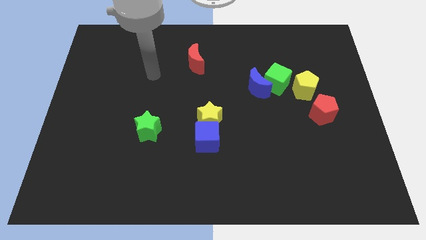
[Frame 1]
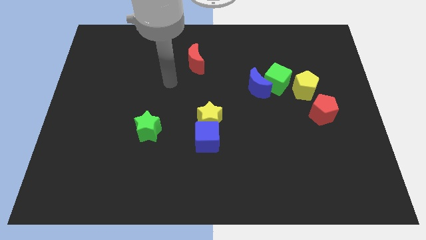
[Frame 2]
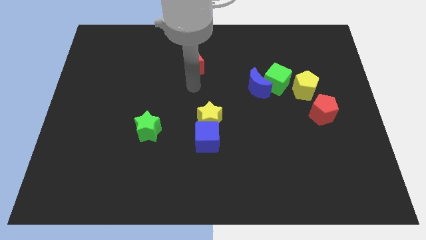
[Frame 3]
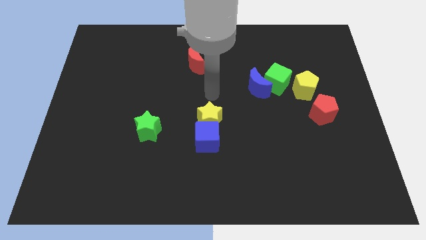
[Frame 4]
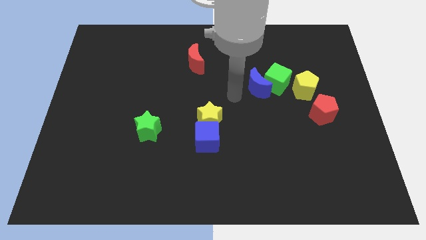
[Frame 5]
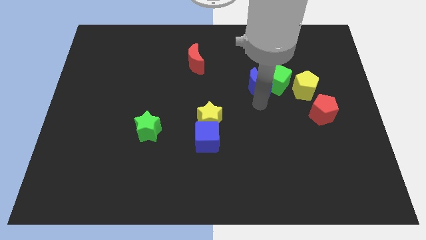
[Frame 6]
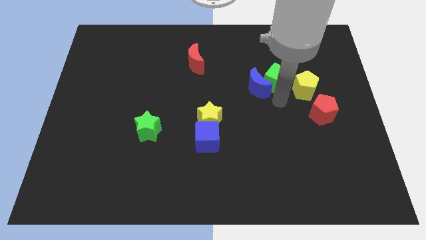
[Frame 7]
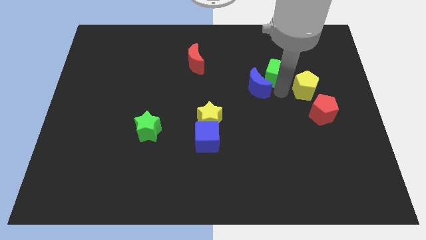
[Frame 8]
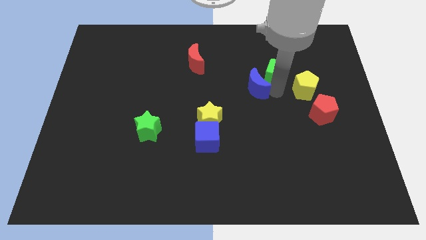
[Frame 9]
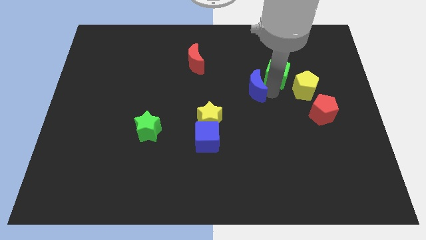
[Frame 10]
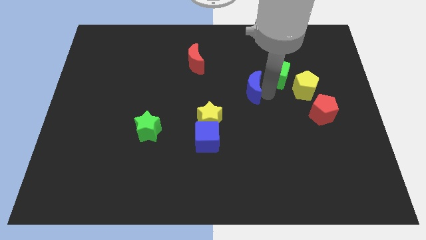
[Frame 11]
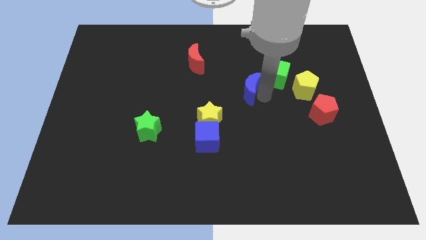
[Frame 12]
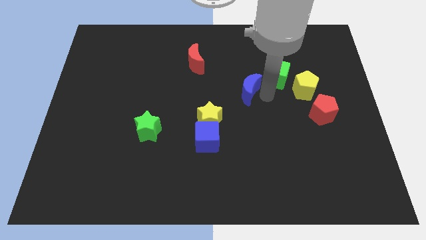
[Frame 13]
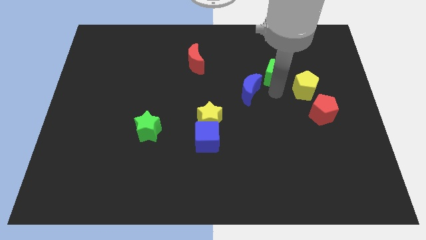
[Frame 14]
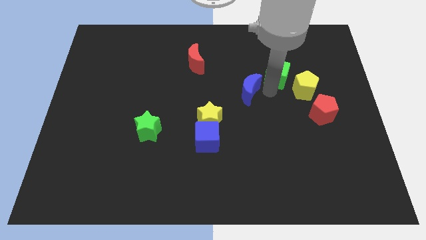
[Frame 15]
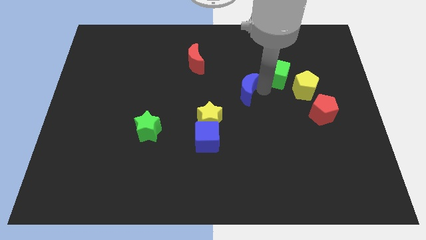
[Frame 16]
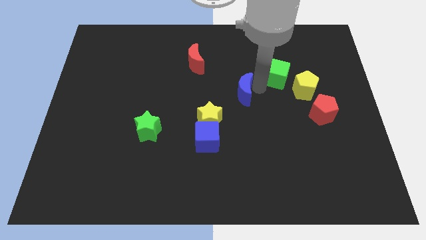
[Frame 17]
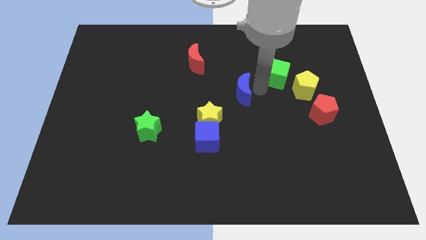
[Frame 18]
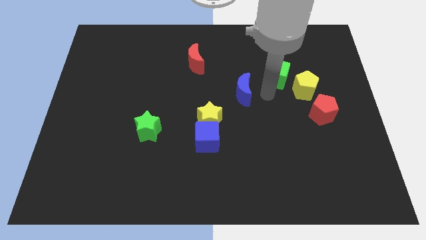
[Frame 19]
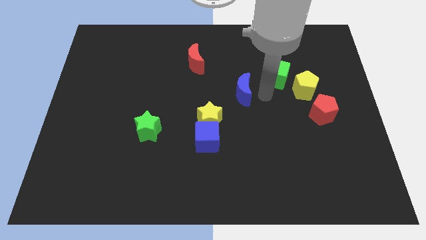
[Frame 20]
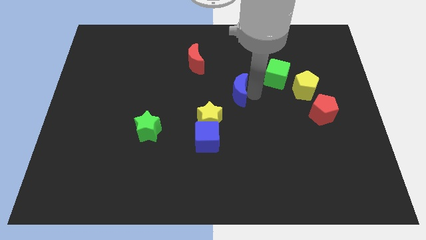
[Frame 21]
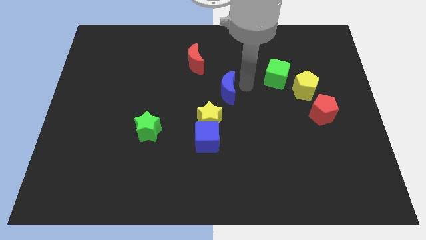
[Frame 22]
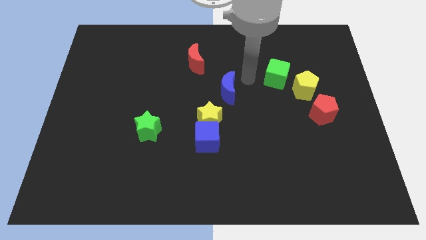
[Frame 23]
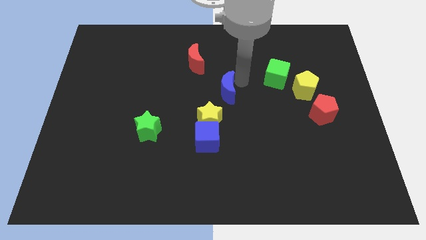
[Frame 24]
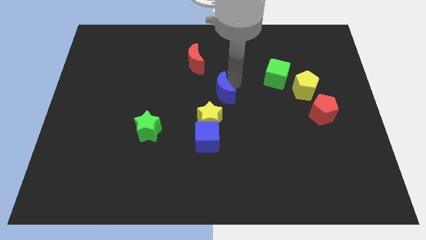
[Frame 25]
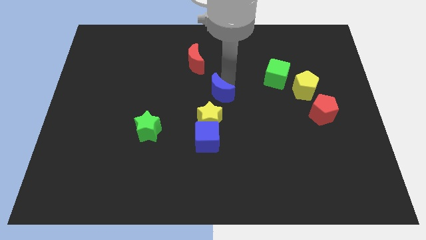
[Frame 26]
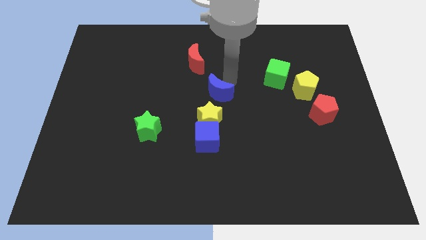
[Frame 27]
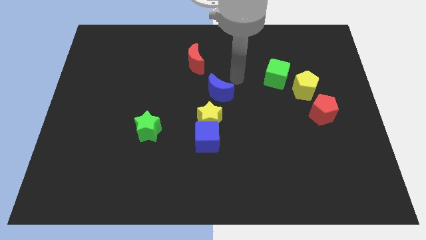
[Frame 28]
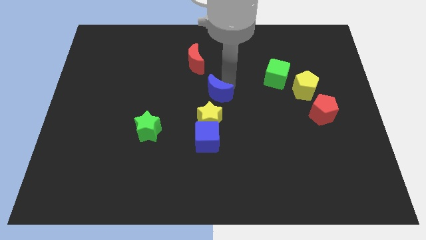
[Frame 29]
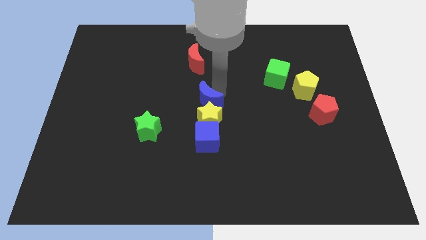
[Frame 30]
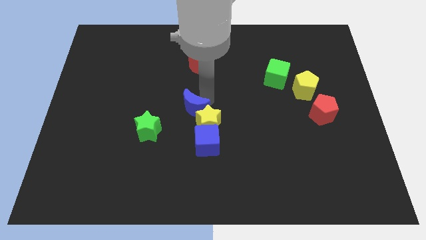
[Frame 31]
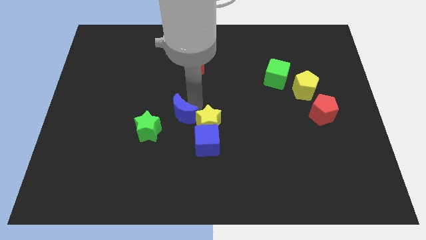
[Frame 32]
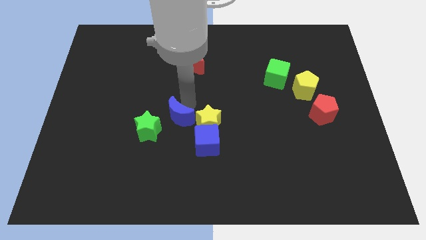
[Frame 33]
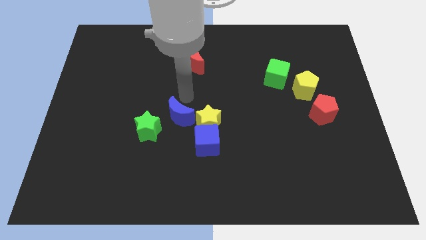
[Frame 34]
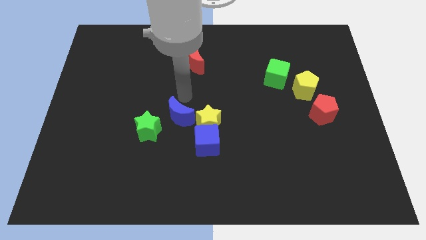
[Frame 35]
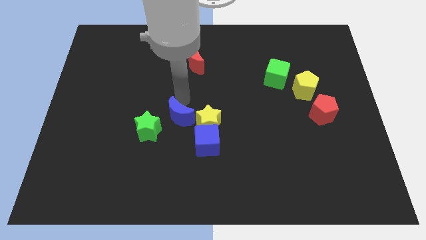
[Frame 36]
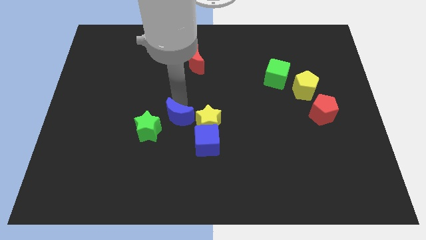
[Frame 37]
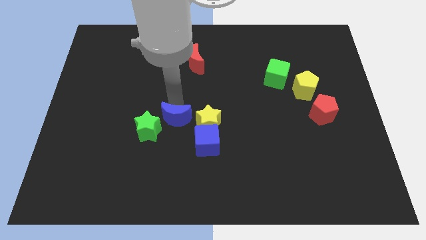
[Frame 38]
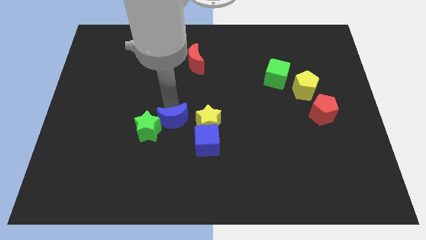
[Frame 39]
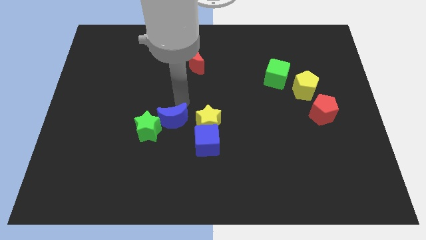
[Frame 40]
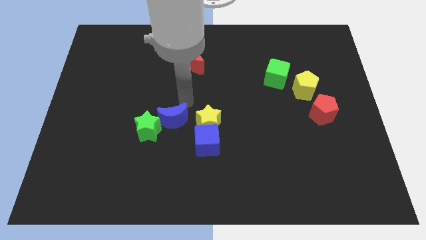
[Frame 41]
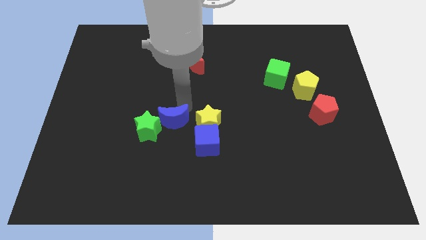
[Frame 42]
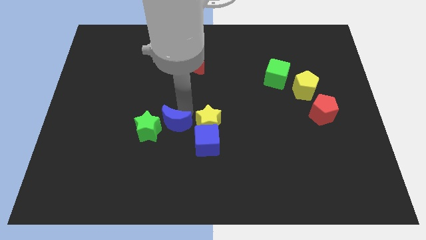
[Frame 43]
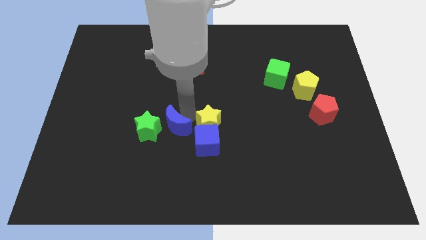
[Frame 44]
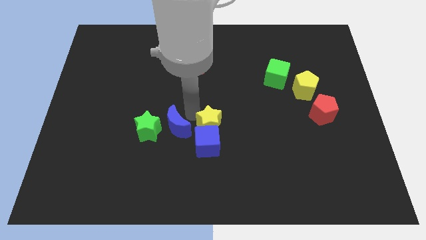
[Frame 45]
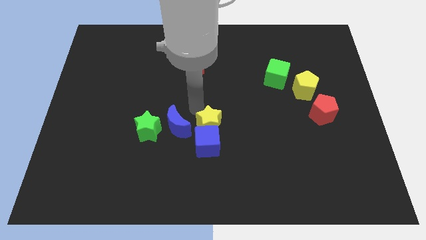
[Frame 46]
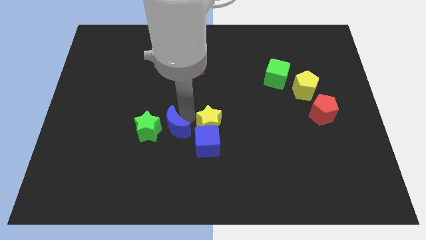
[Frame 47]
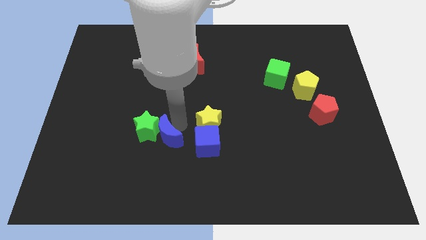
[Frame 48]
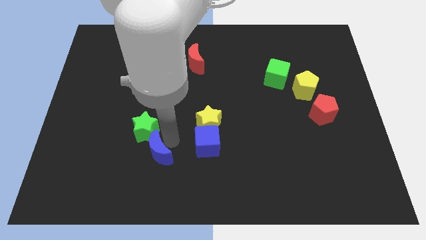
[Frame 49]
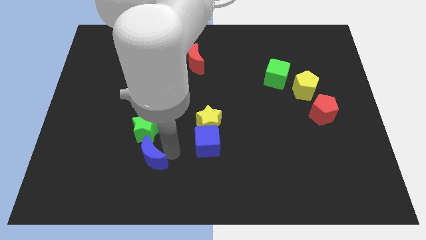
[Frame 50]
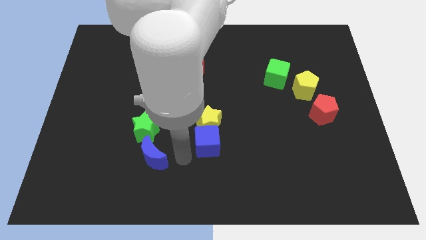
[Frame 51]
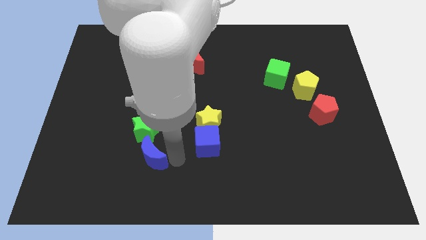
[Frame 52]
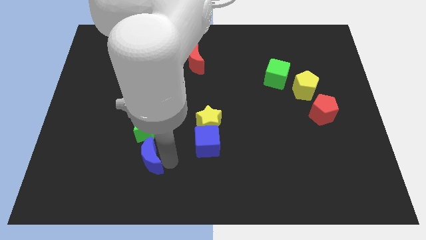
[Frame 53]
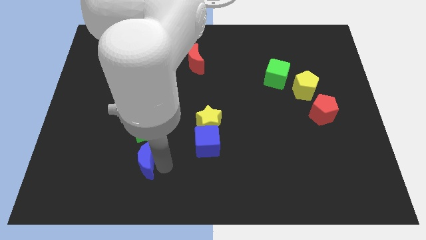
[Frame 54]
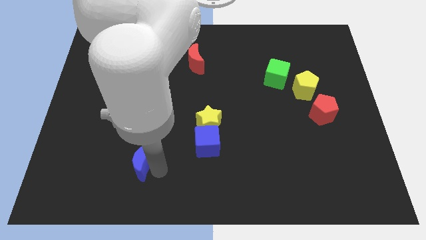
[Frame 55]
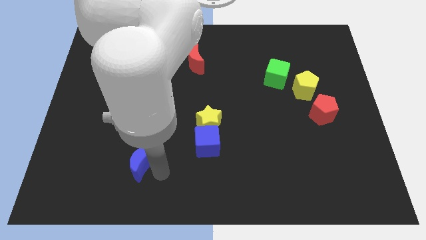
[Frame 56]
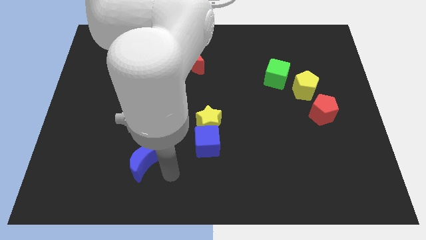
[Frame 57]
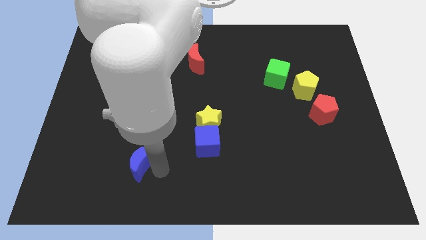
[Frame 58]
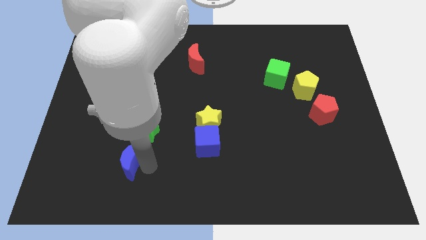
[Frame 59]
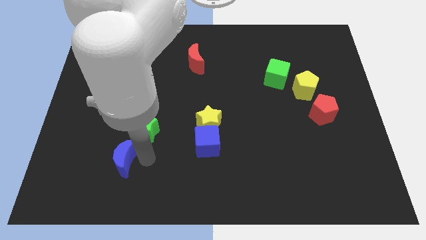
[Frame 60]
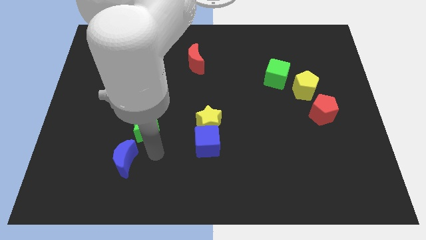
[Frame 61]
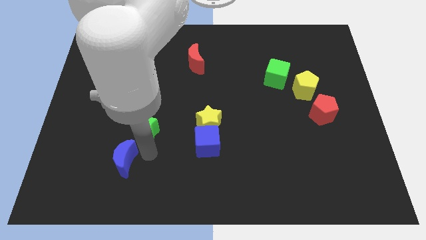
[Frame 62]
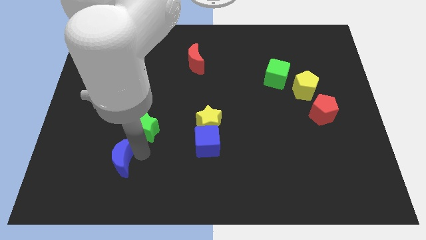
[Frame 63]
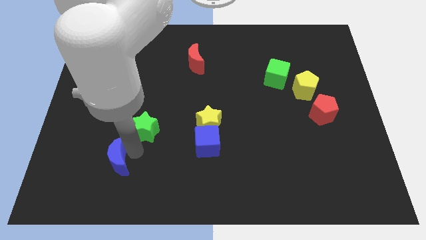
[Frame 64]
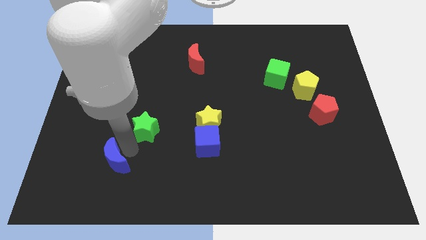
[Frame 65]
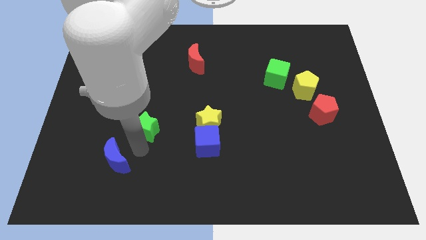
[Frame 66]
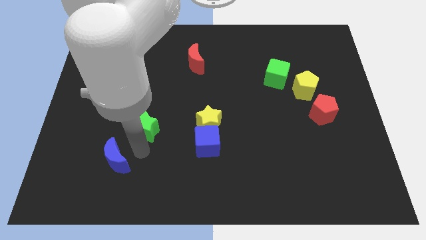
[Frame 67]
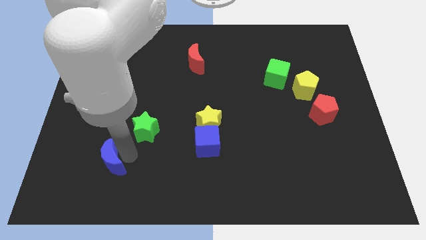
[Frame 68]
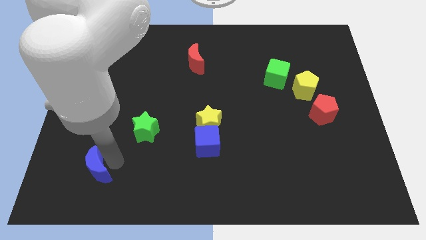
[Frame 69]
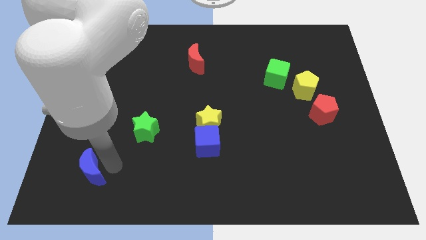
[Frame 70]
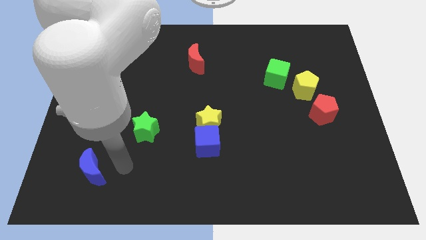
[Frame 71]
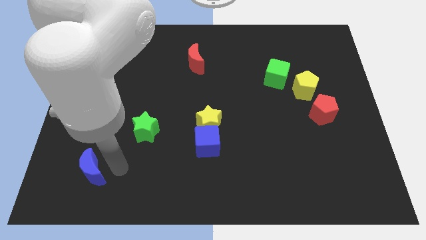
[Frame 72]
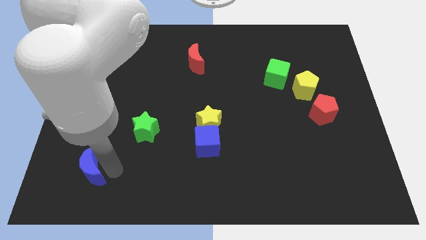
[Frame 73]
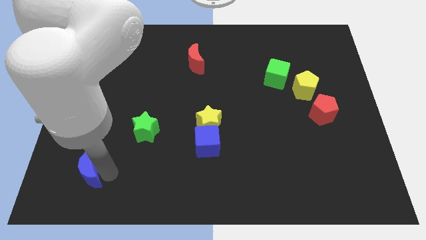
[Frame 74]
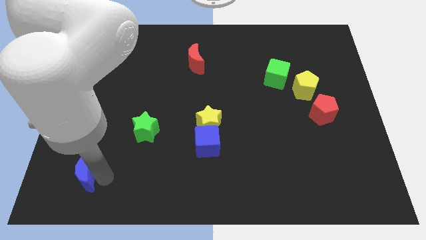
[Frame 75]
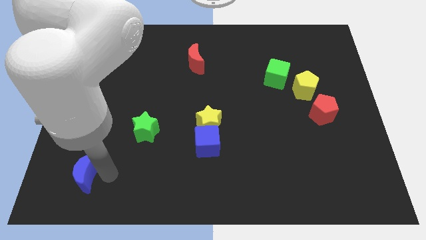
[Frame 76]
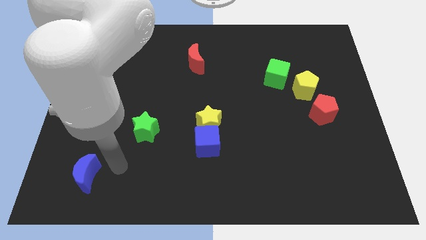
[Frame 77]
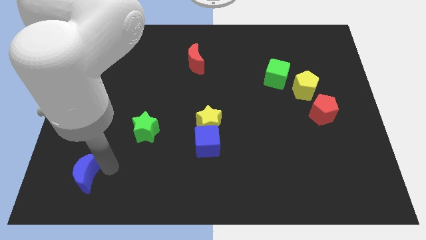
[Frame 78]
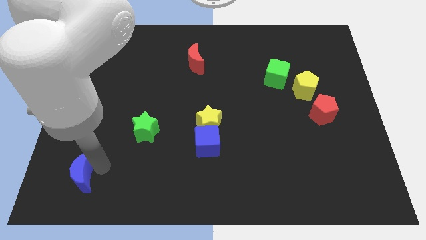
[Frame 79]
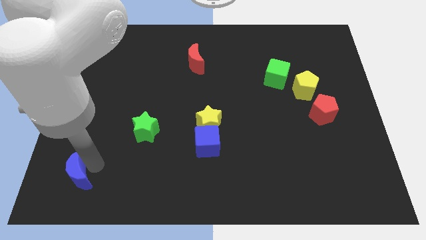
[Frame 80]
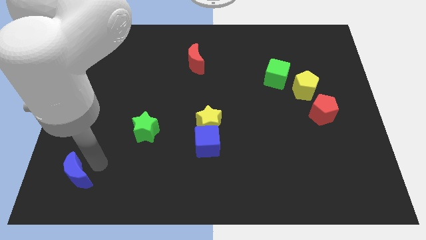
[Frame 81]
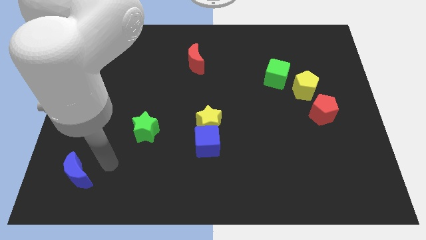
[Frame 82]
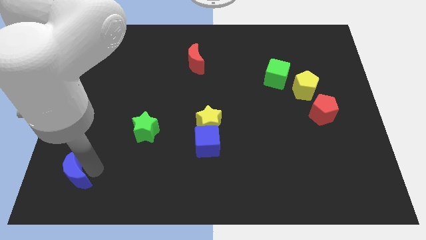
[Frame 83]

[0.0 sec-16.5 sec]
move the blue moon to the bottom left
